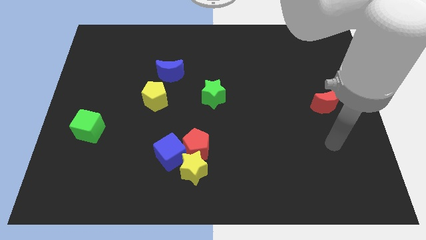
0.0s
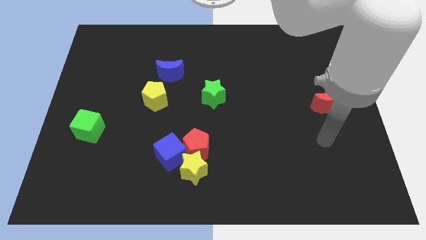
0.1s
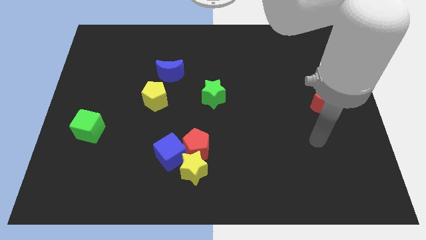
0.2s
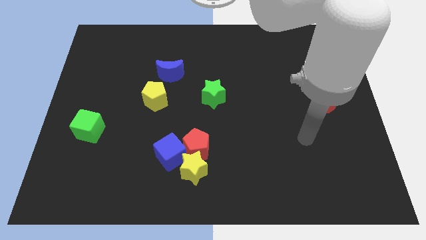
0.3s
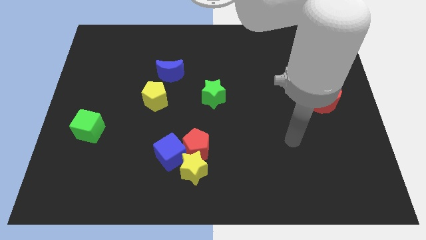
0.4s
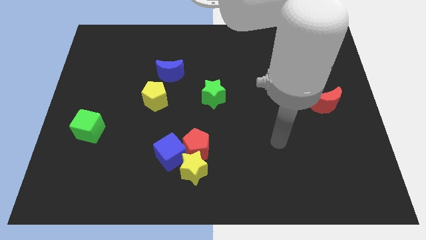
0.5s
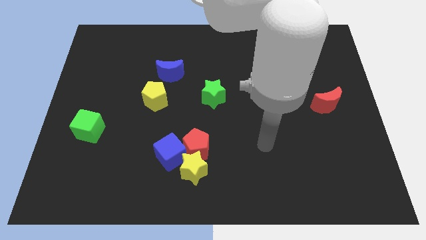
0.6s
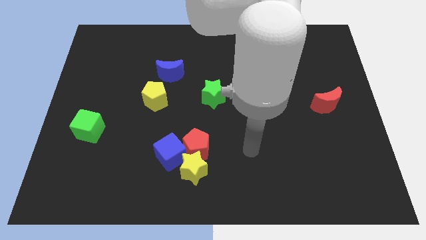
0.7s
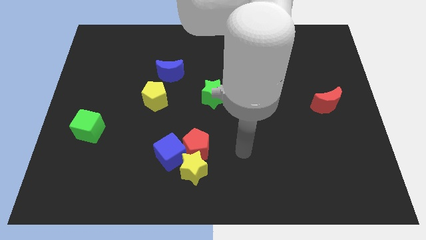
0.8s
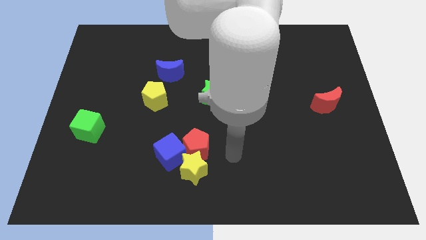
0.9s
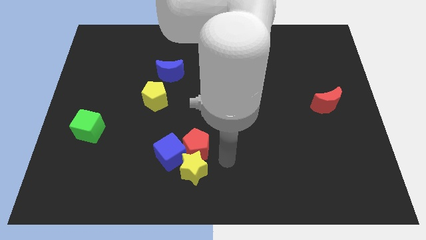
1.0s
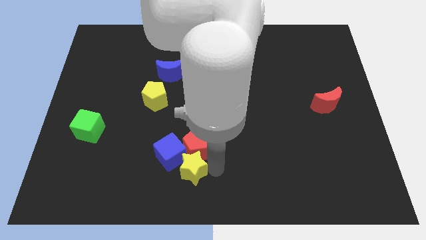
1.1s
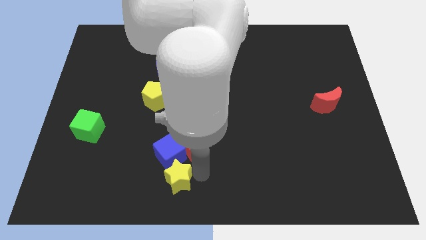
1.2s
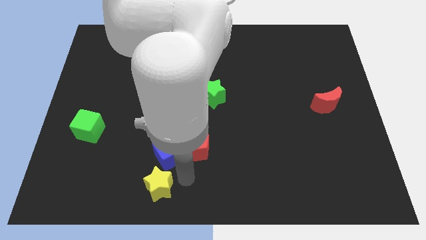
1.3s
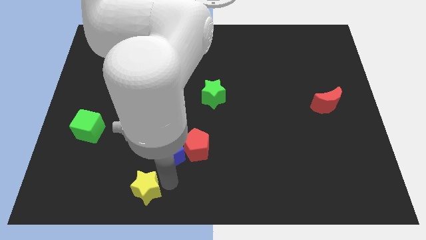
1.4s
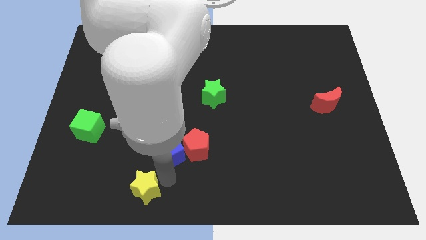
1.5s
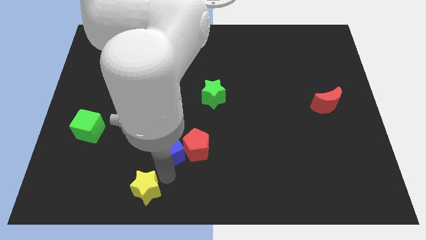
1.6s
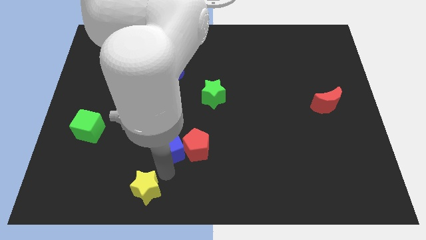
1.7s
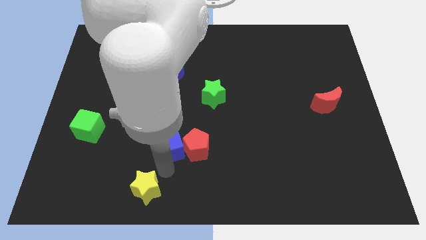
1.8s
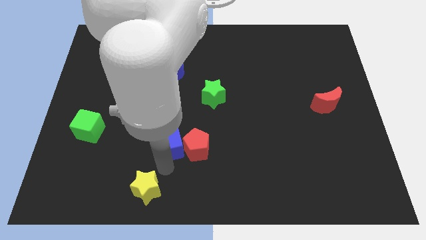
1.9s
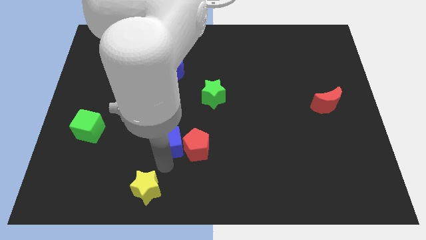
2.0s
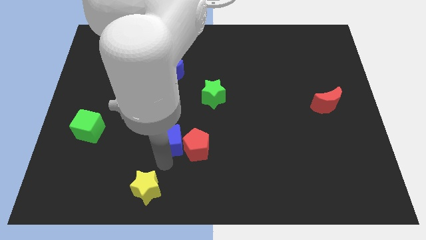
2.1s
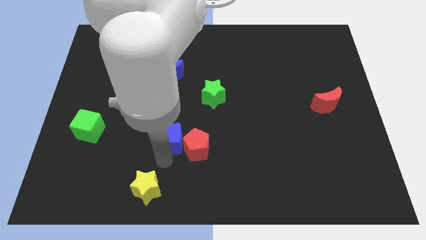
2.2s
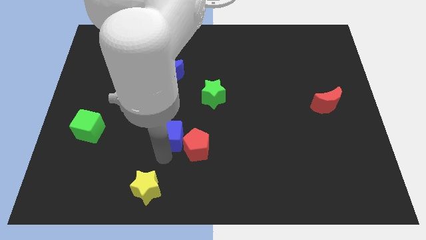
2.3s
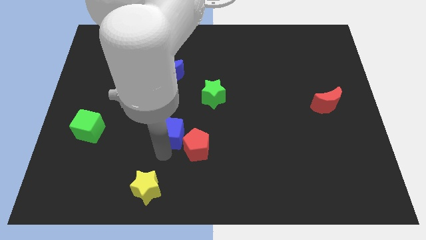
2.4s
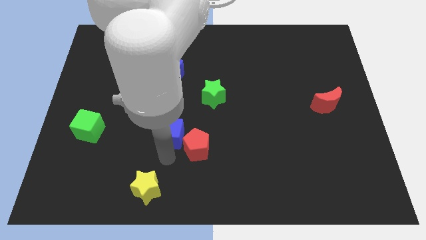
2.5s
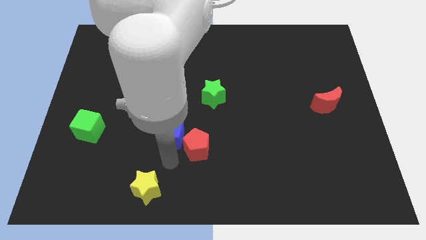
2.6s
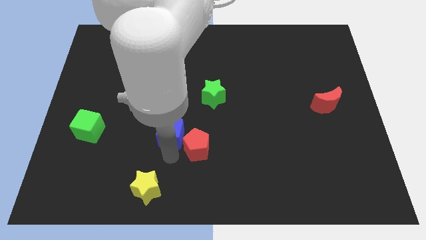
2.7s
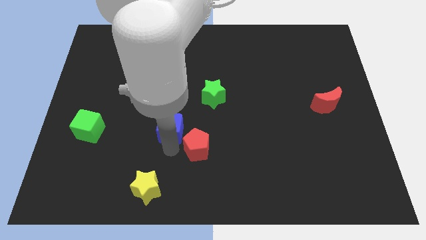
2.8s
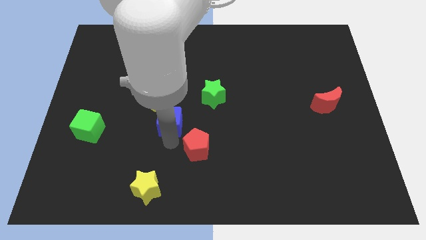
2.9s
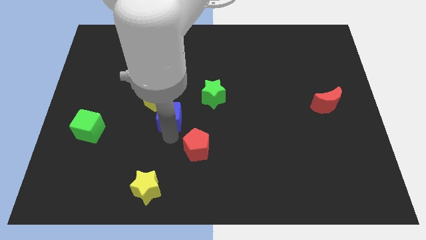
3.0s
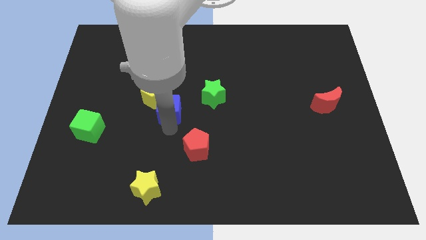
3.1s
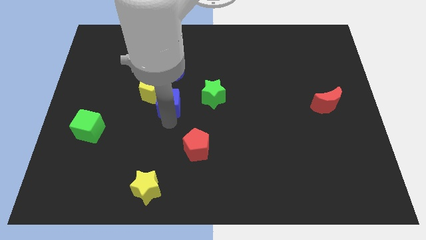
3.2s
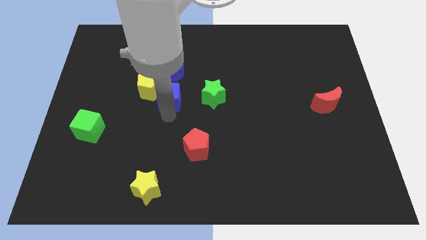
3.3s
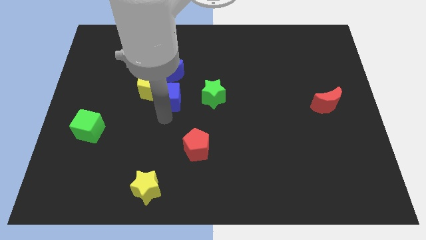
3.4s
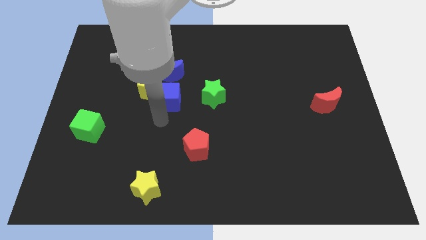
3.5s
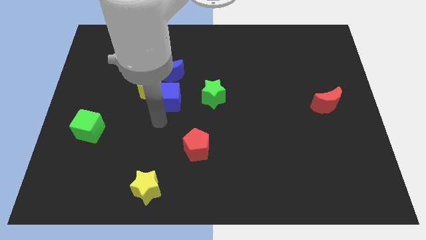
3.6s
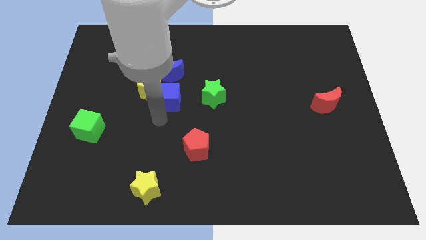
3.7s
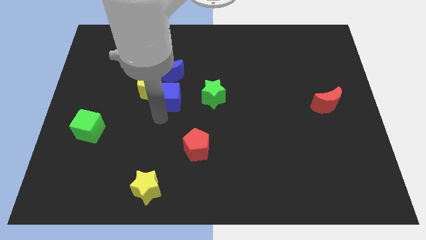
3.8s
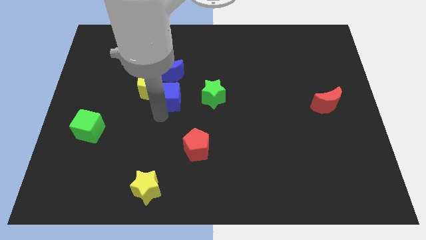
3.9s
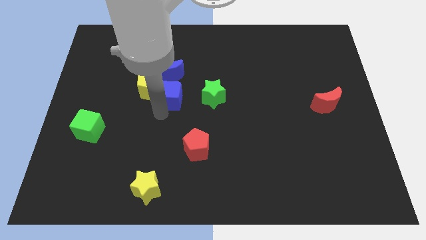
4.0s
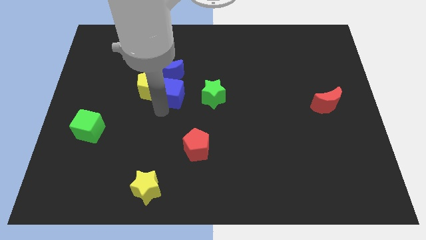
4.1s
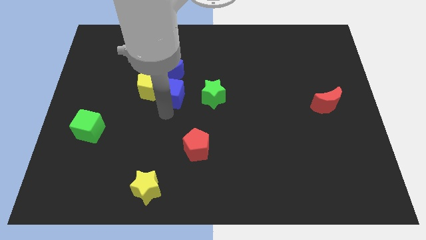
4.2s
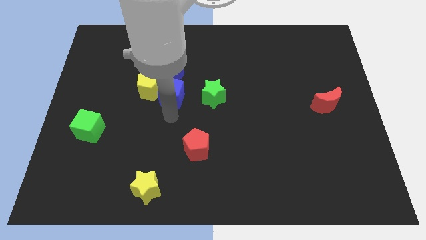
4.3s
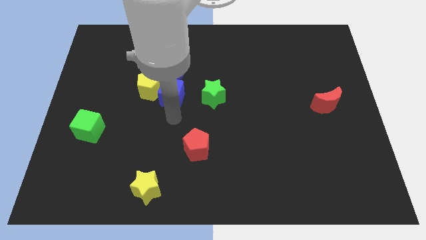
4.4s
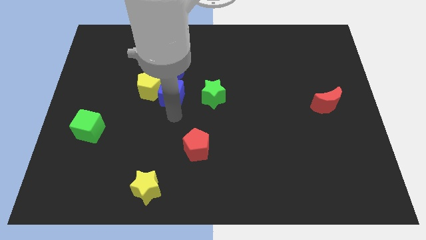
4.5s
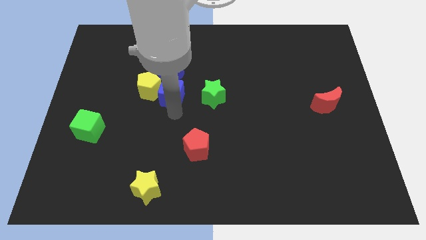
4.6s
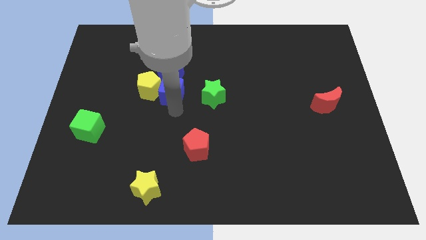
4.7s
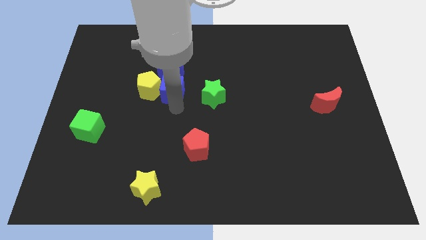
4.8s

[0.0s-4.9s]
slide the blue cube next to the blue moon

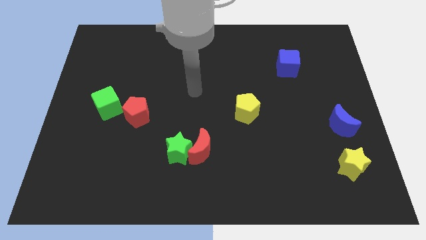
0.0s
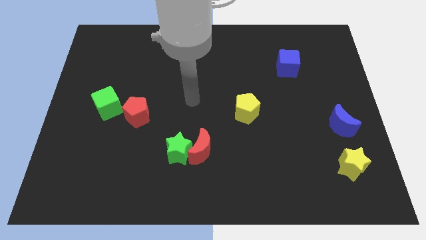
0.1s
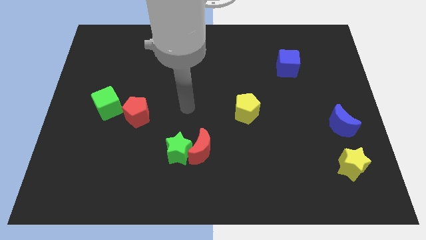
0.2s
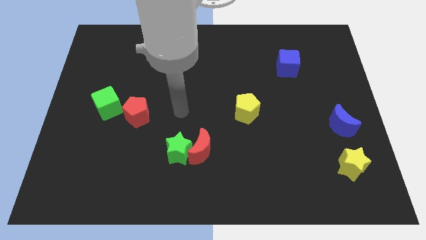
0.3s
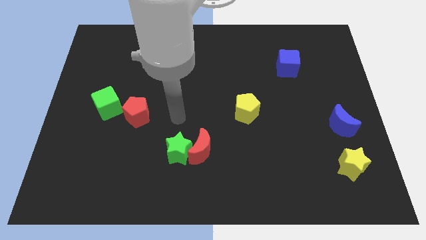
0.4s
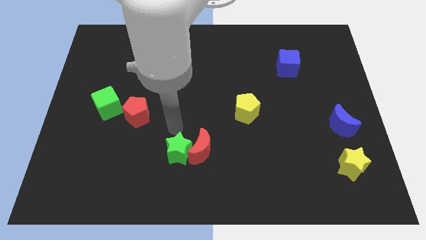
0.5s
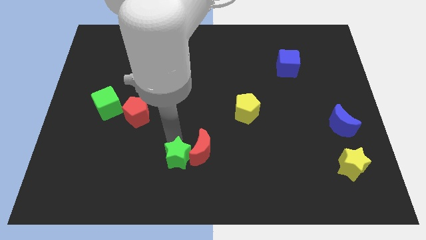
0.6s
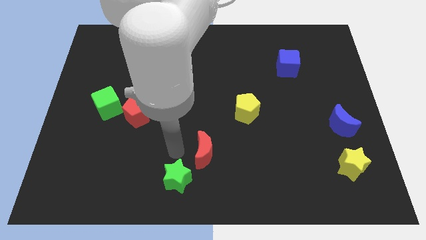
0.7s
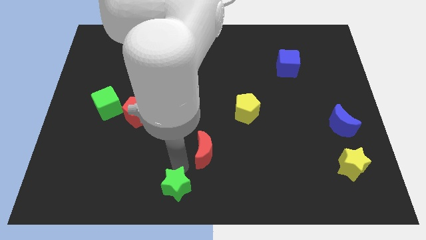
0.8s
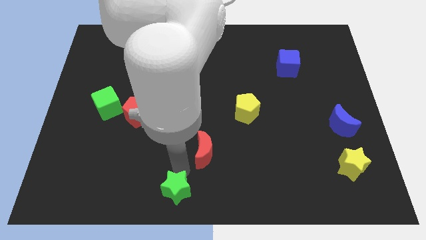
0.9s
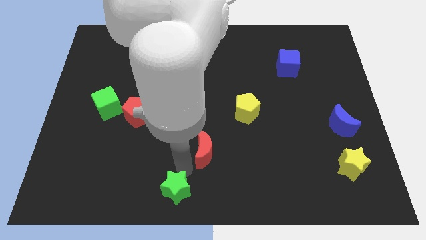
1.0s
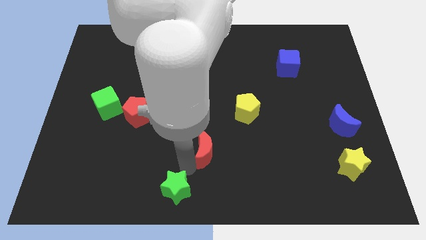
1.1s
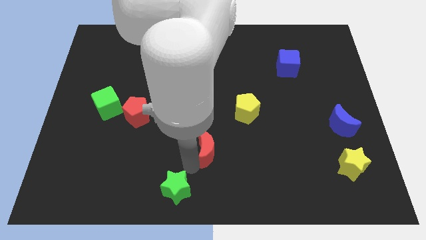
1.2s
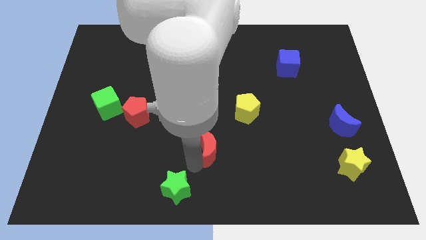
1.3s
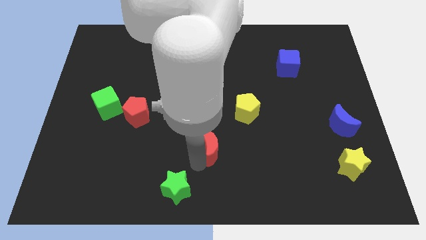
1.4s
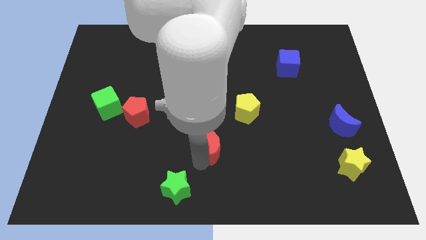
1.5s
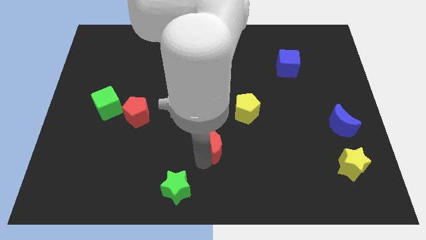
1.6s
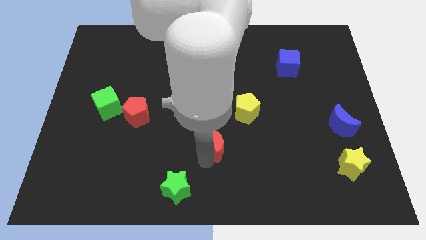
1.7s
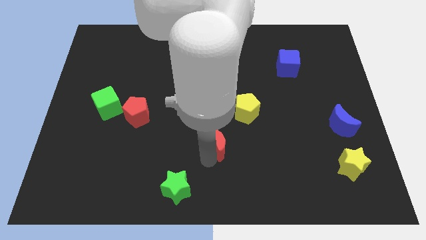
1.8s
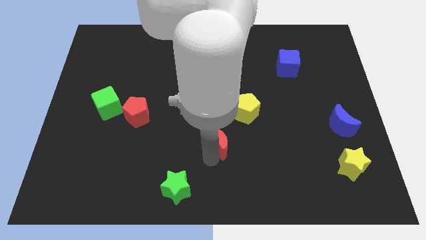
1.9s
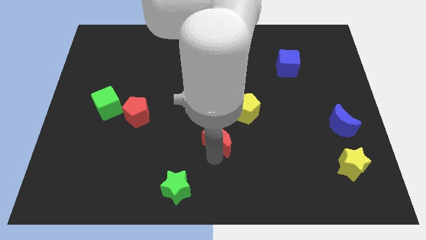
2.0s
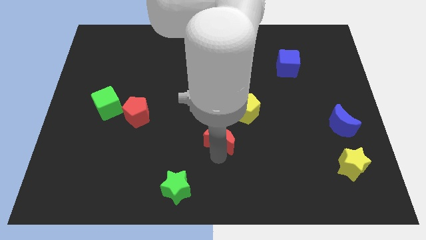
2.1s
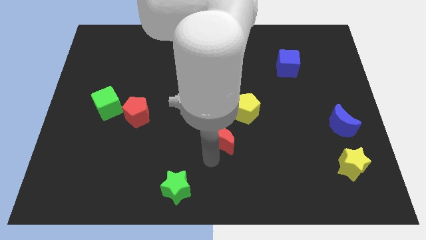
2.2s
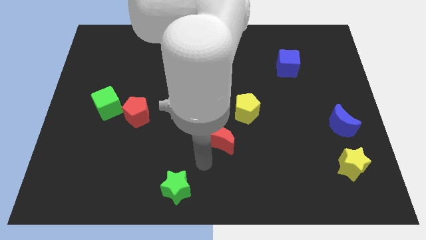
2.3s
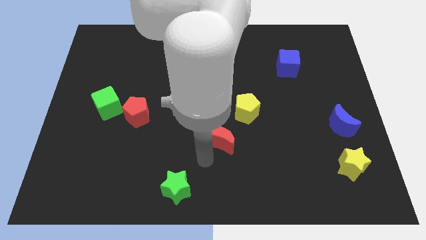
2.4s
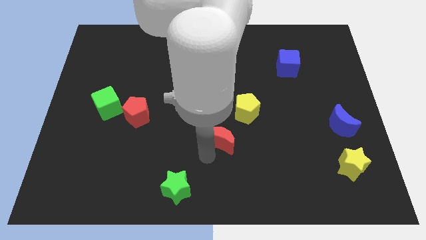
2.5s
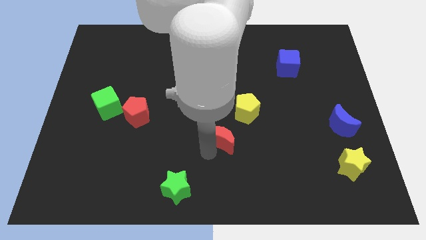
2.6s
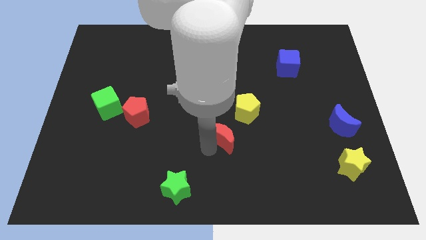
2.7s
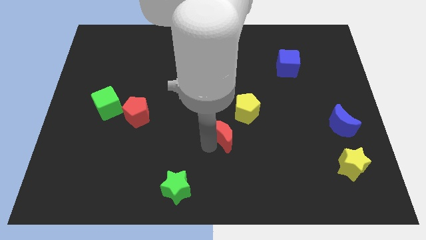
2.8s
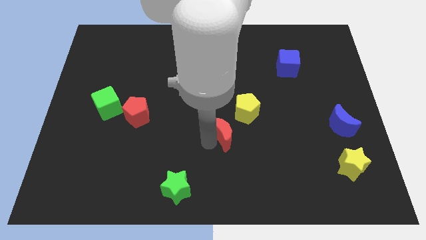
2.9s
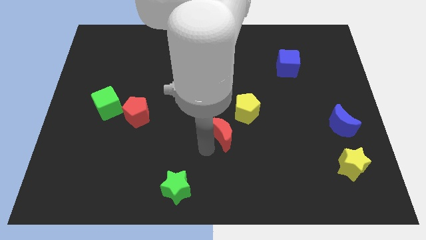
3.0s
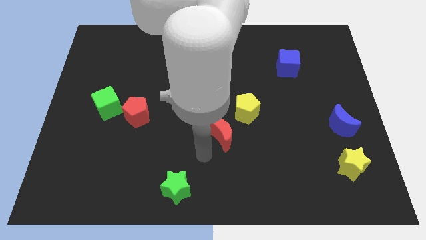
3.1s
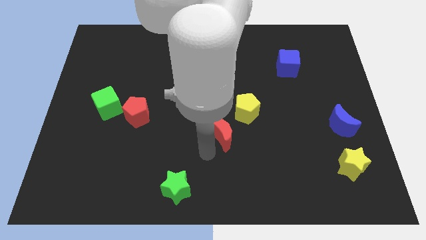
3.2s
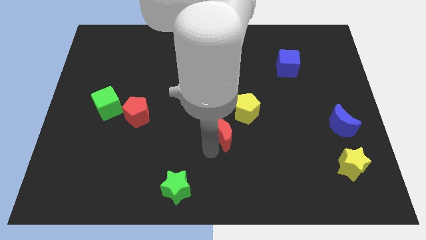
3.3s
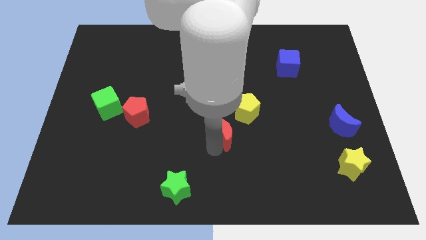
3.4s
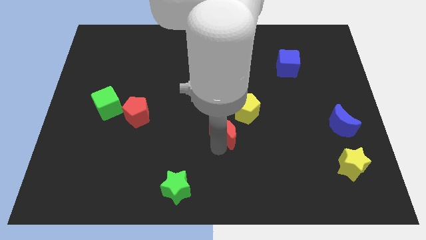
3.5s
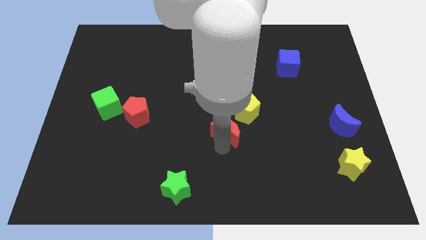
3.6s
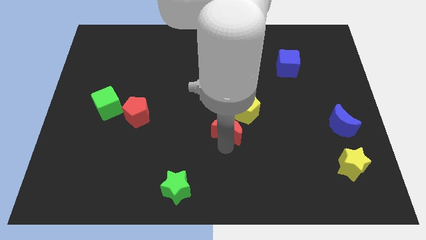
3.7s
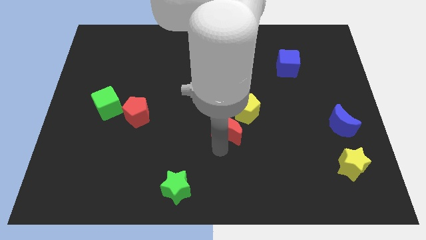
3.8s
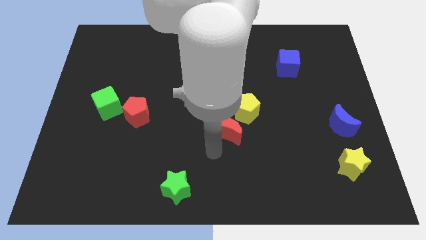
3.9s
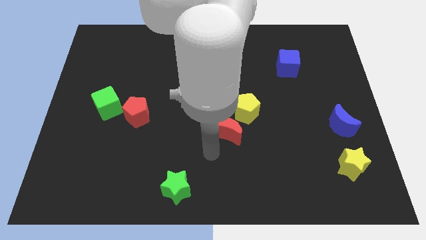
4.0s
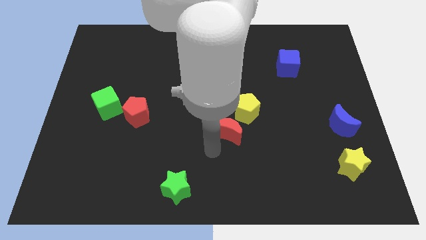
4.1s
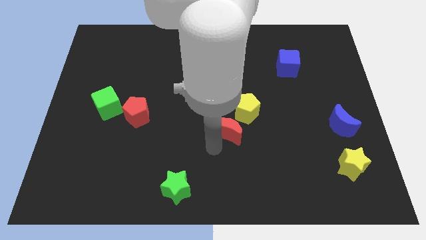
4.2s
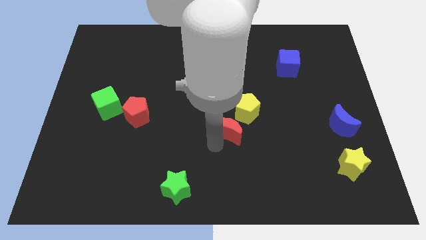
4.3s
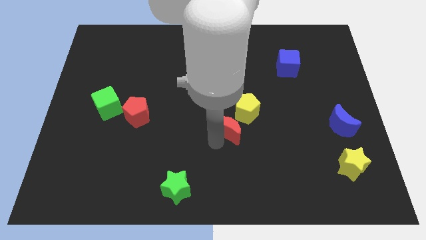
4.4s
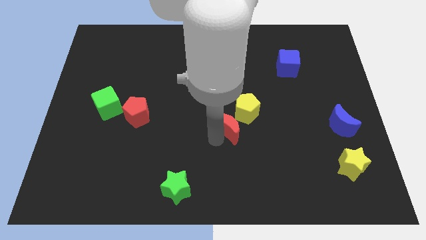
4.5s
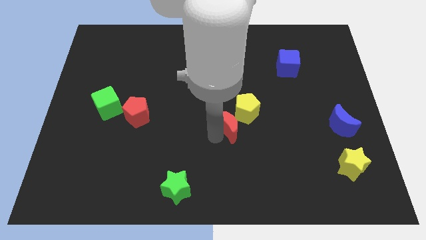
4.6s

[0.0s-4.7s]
move the red moon to the yellow pentagon
